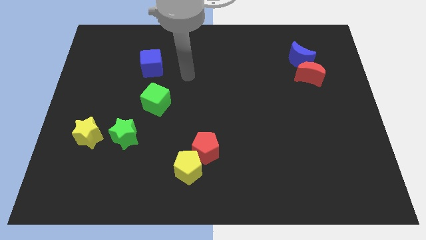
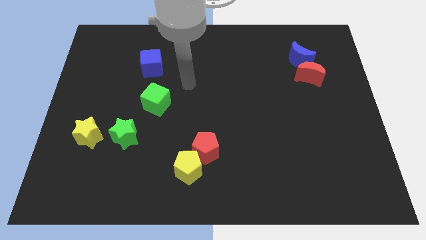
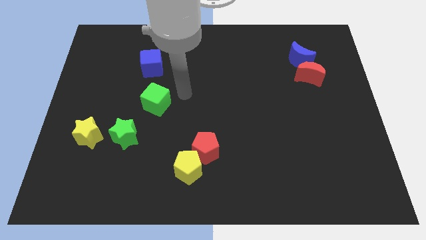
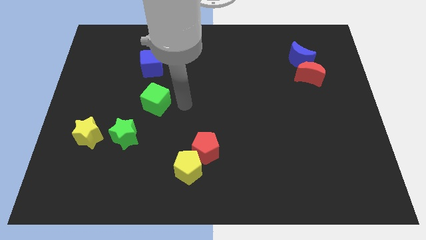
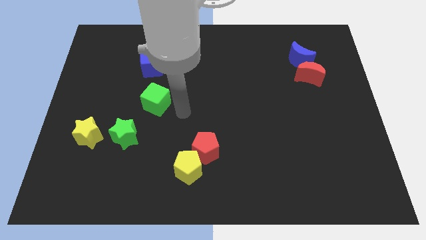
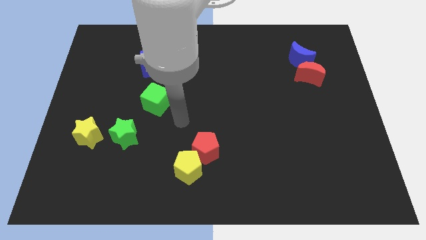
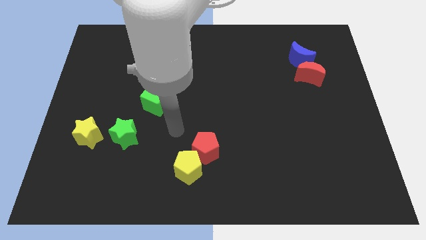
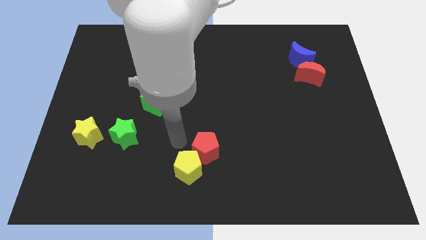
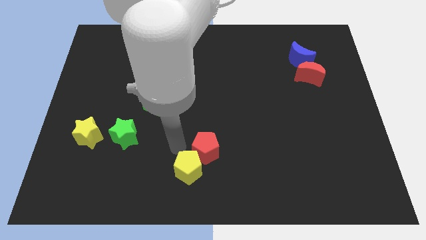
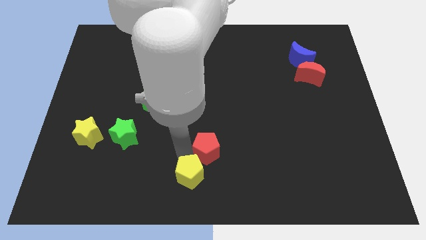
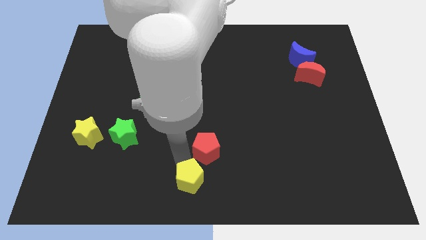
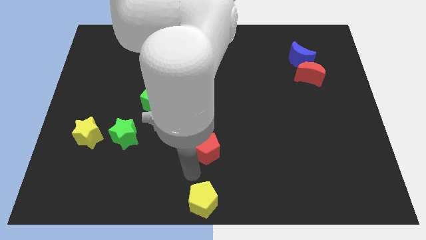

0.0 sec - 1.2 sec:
pull the red pentagon apart from the yellow pentagon

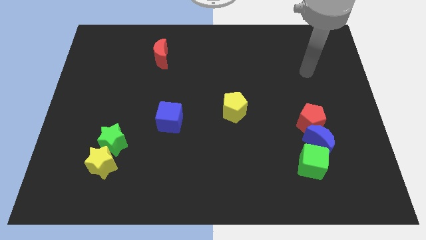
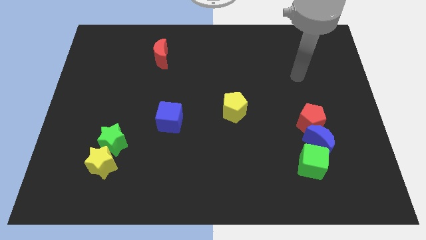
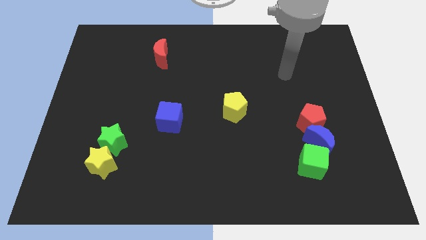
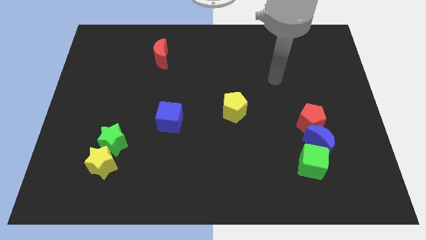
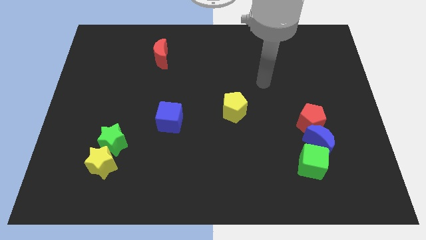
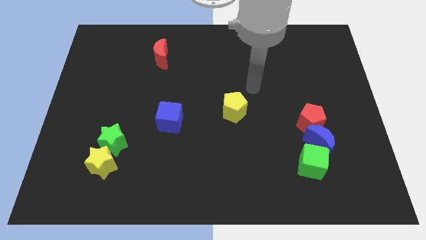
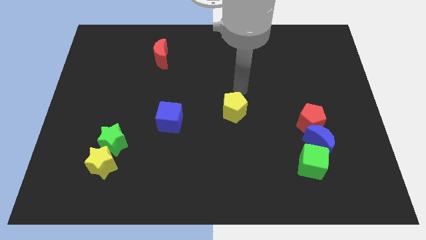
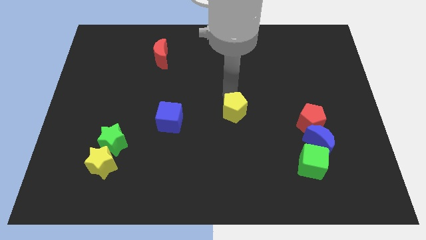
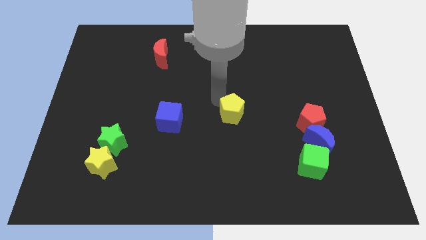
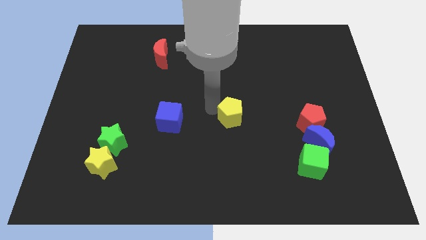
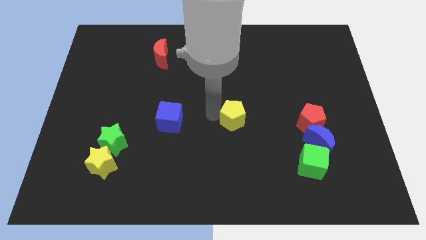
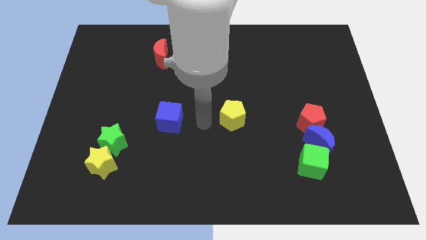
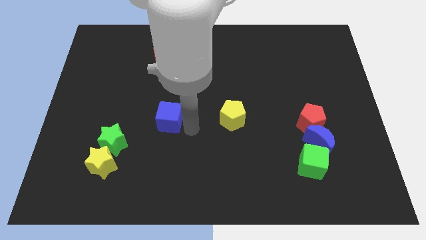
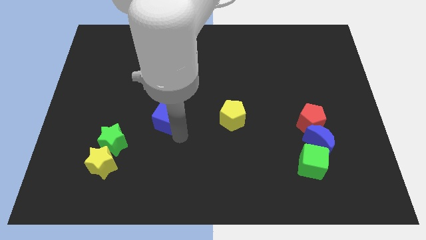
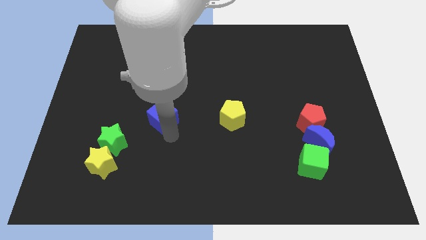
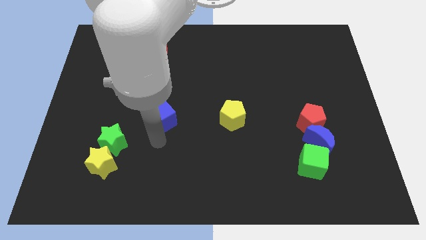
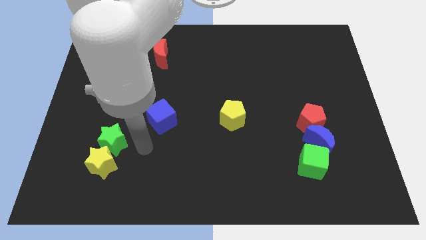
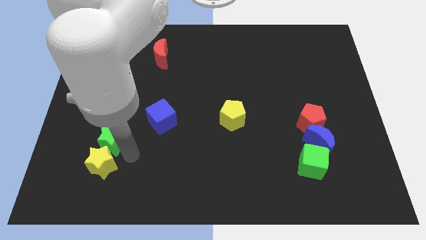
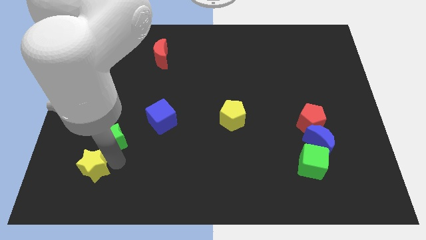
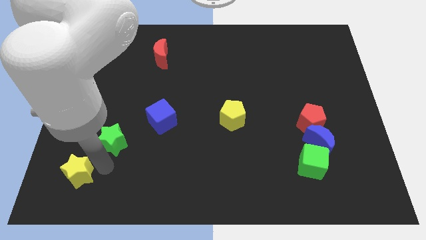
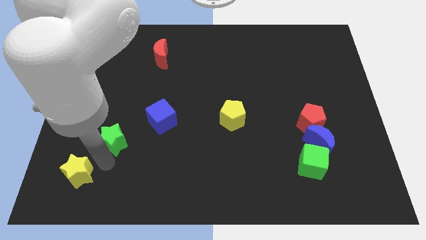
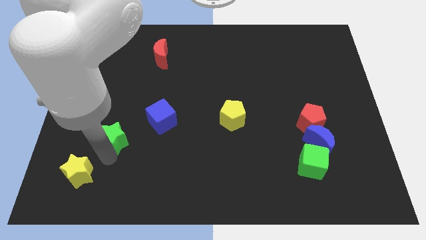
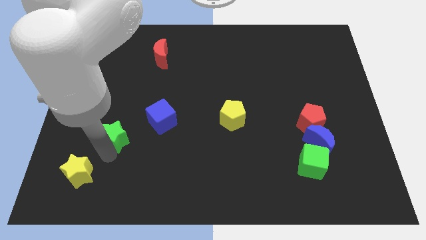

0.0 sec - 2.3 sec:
separate the green star from the yellow star

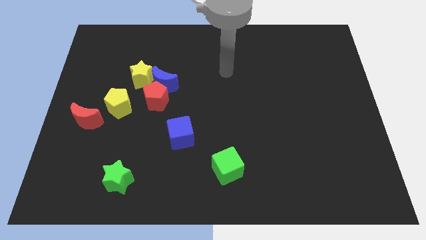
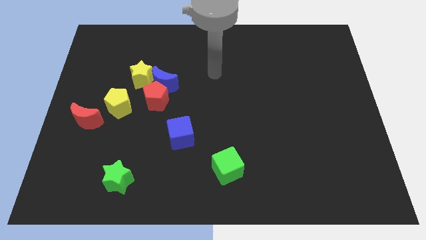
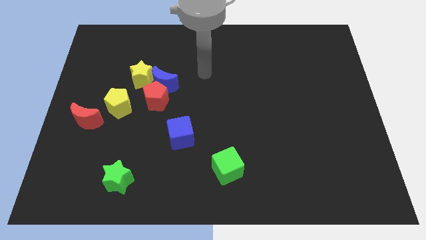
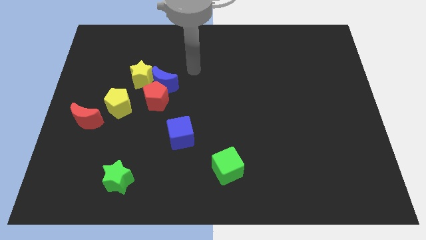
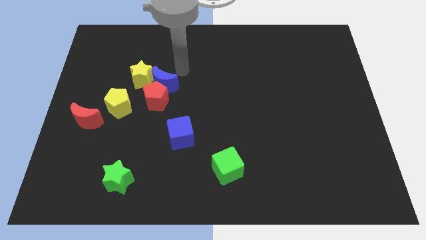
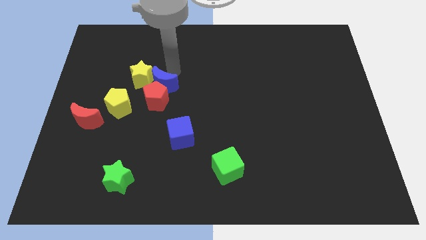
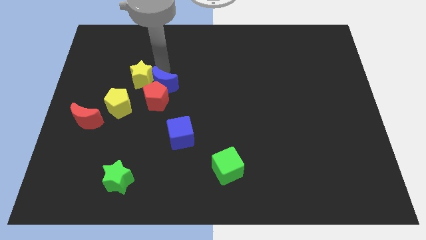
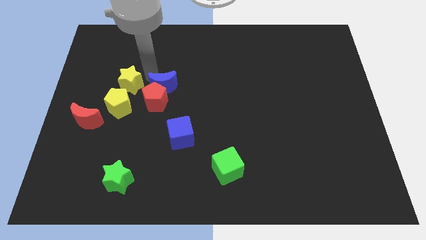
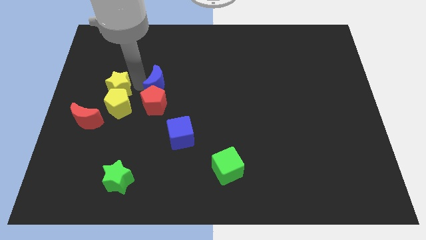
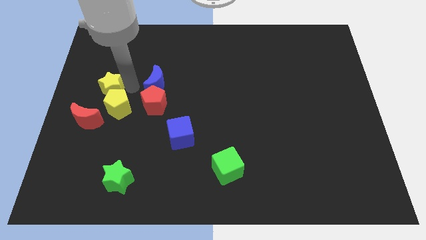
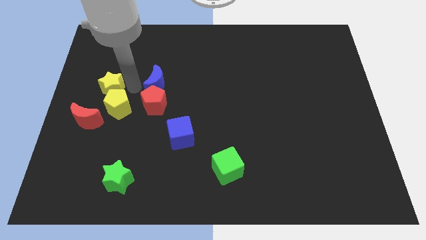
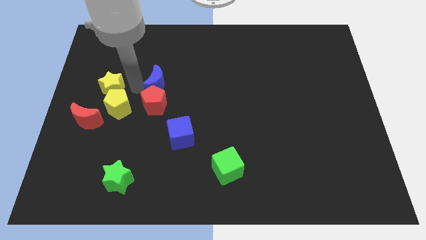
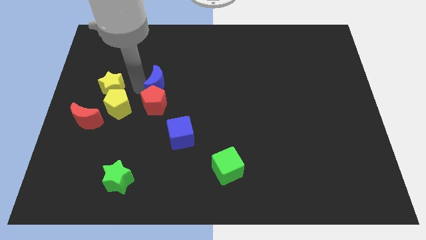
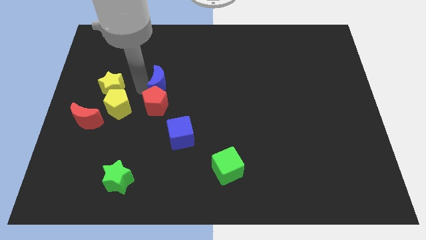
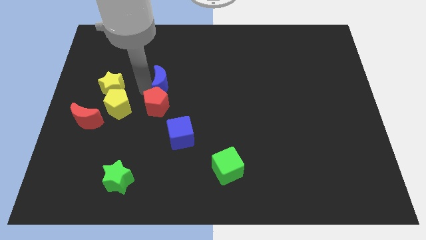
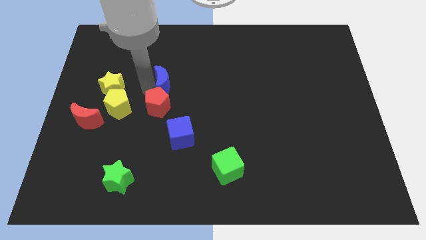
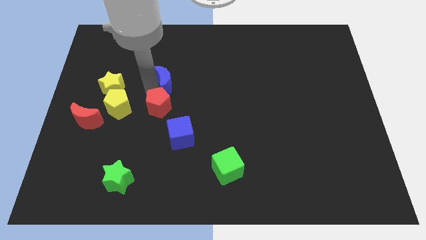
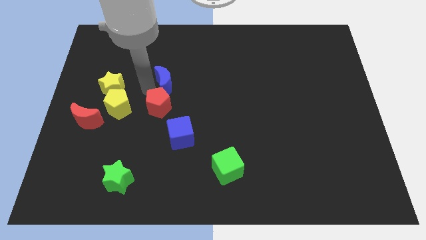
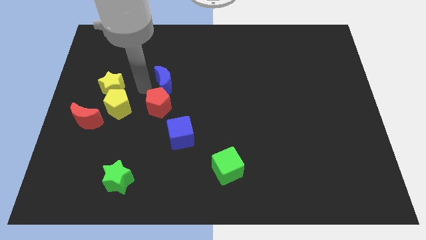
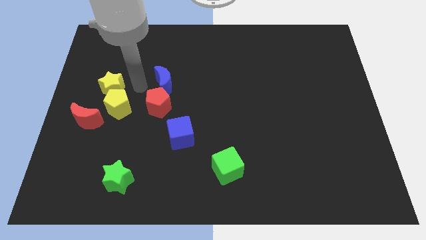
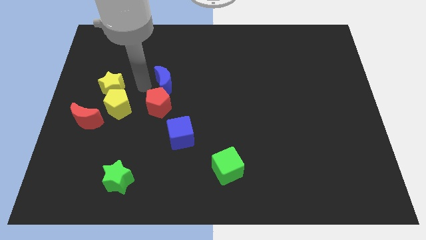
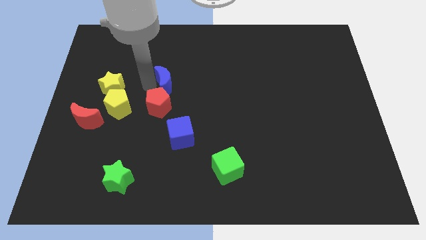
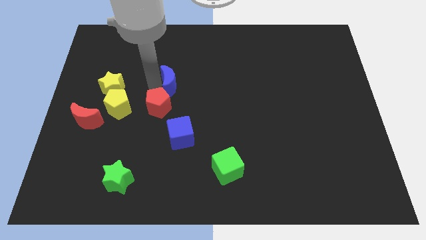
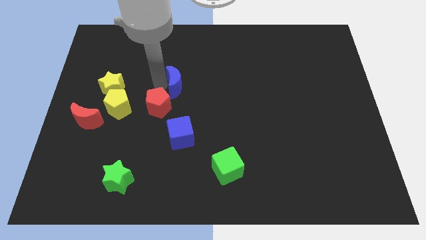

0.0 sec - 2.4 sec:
separate the blue moon from the red pentagon and yellow star

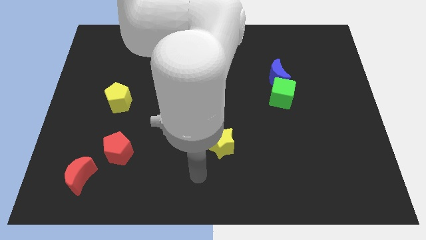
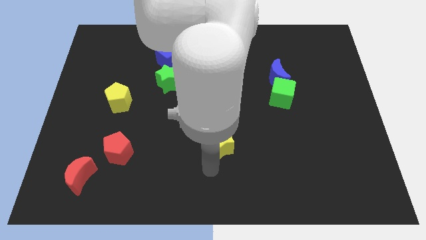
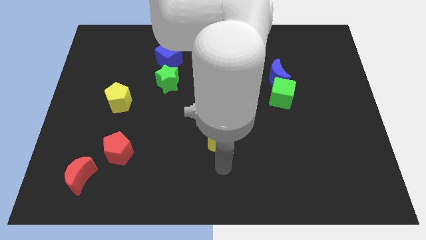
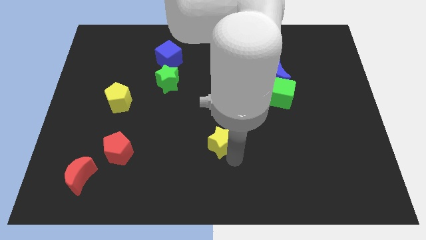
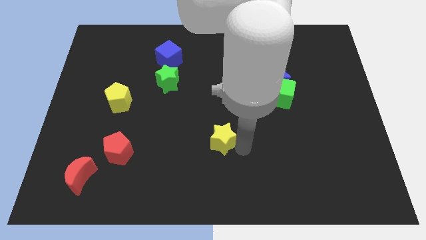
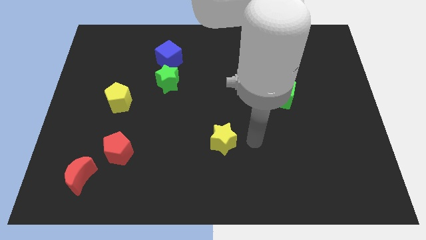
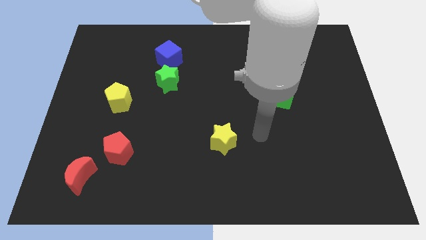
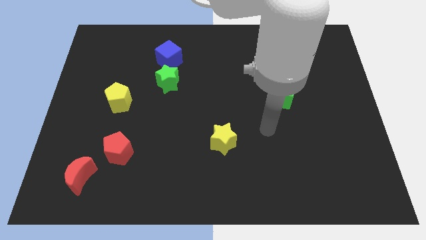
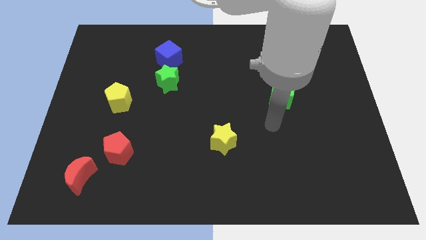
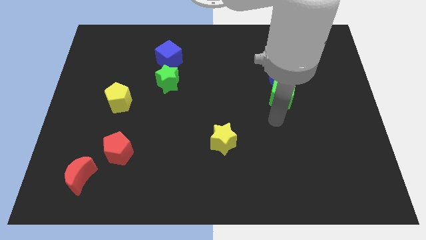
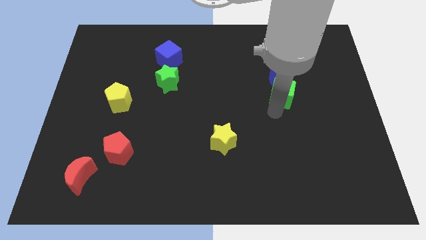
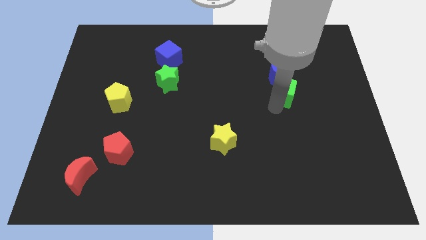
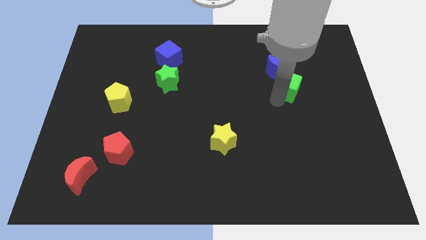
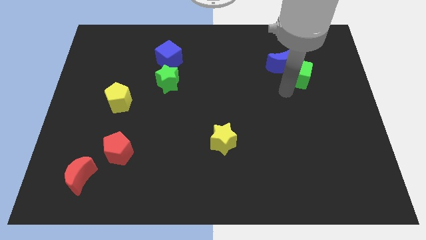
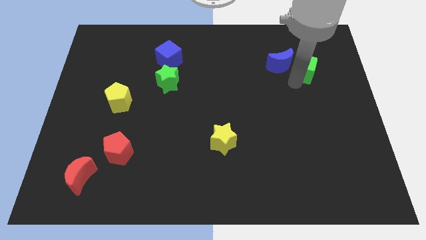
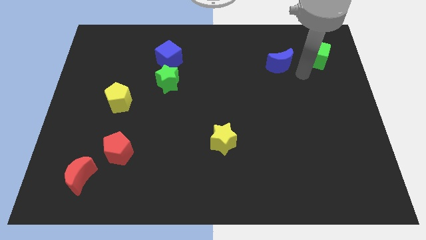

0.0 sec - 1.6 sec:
pull the blue moon apart from the green cube

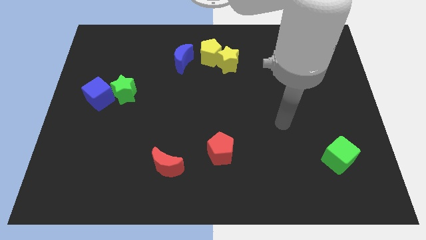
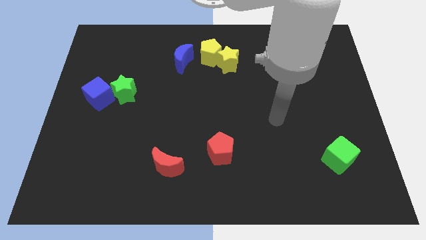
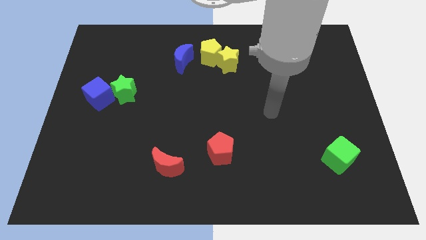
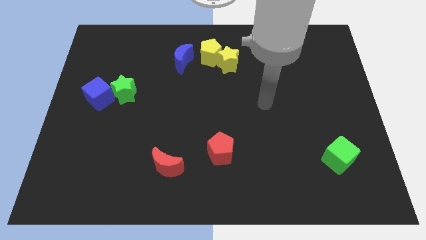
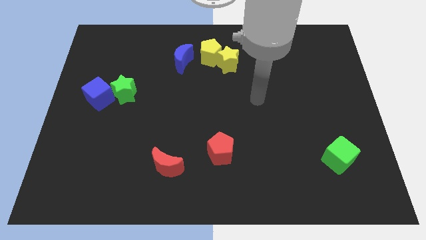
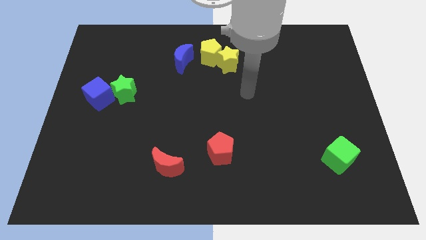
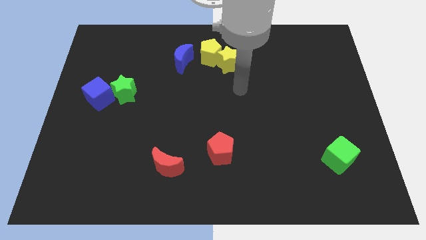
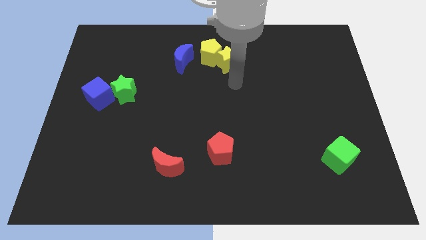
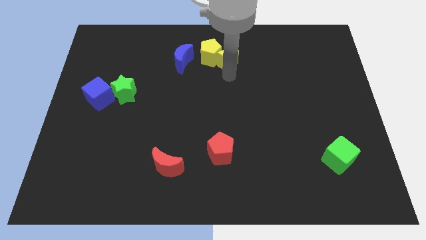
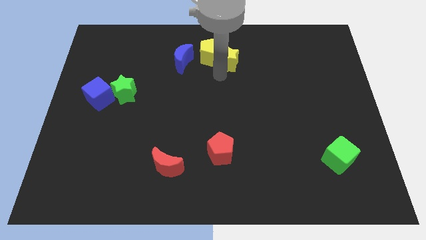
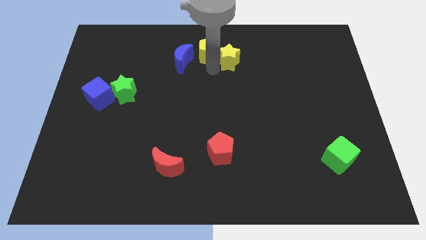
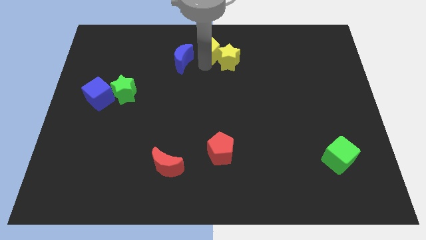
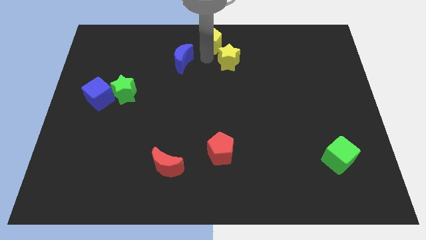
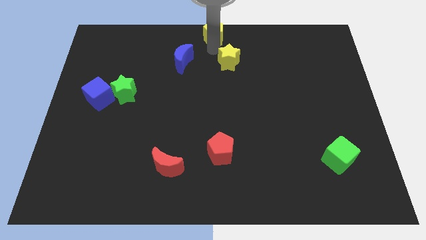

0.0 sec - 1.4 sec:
move the yellow star away from the yellow pentagon

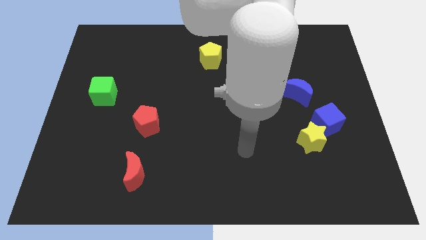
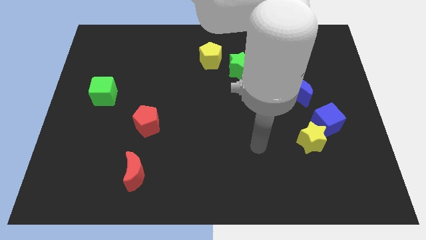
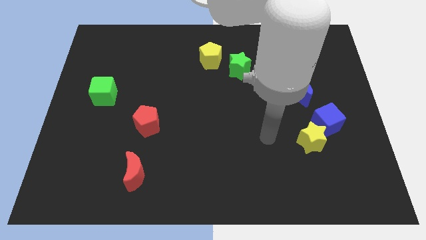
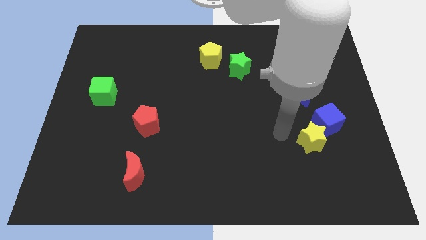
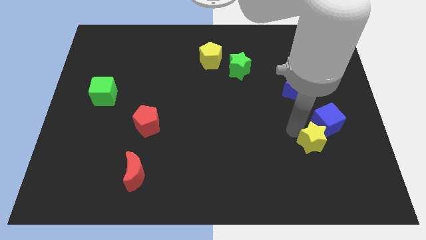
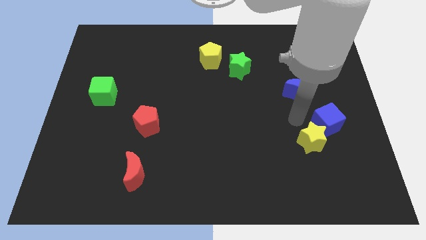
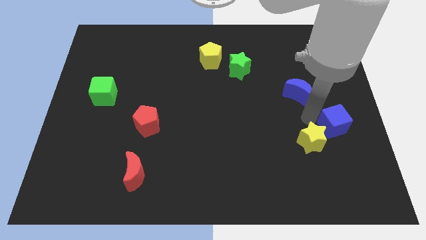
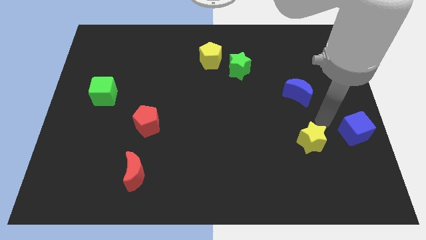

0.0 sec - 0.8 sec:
separate the yellow star from the blue cube
